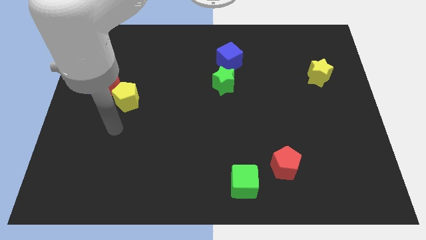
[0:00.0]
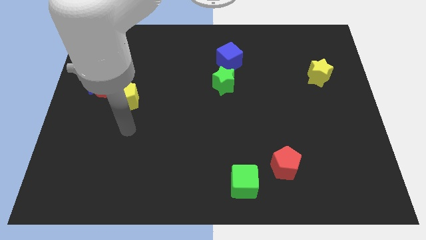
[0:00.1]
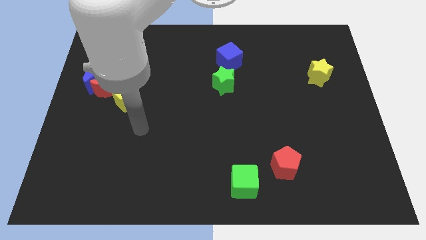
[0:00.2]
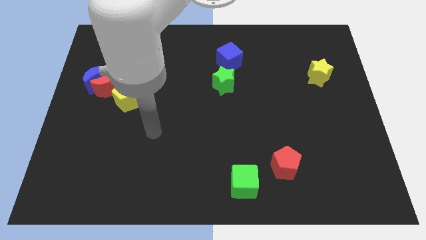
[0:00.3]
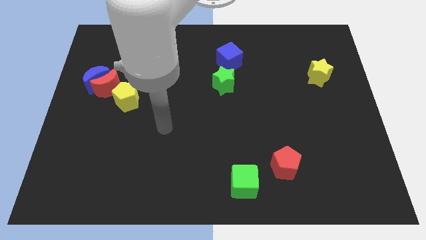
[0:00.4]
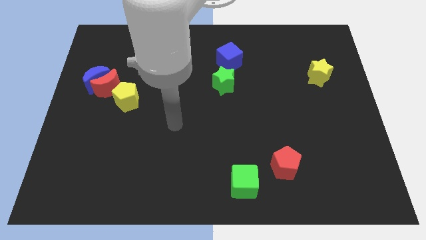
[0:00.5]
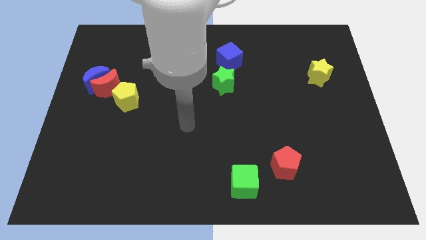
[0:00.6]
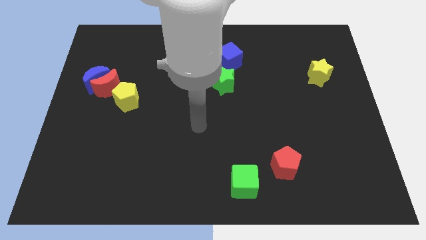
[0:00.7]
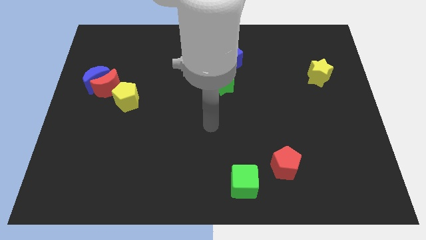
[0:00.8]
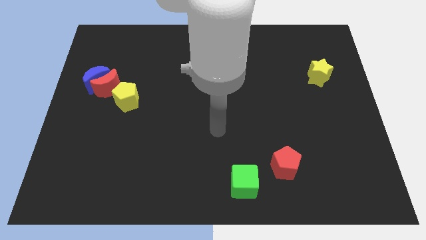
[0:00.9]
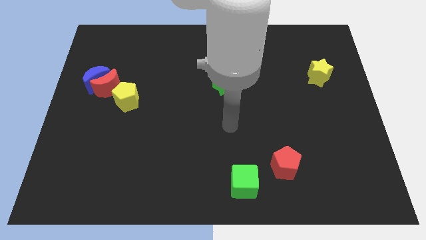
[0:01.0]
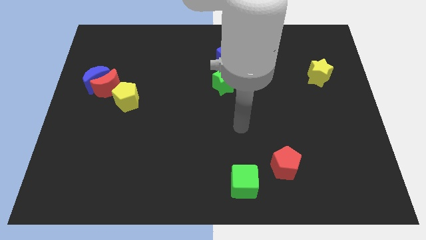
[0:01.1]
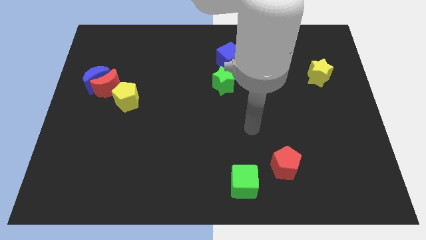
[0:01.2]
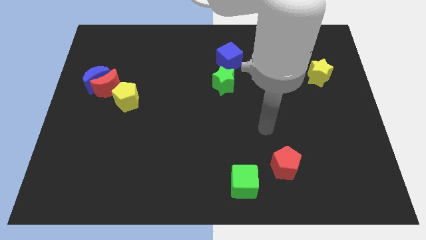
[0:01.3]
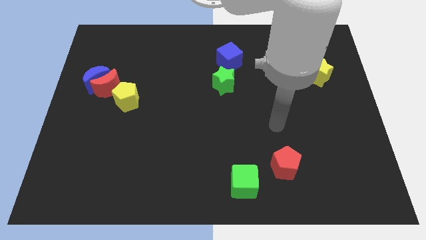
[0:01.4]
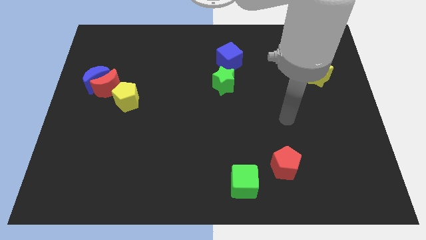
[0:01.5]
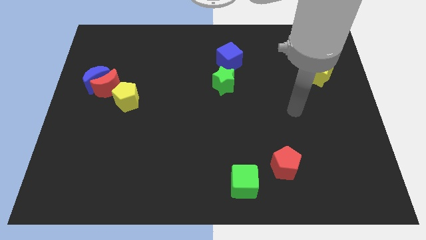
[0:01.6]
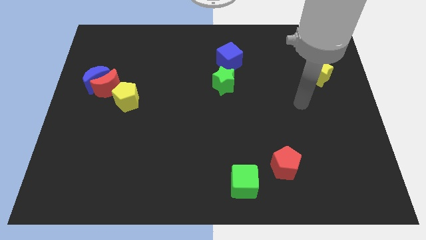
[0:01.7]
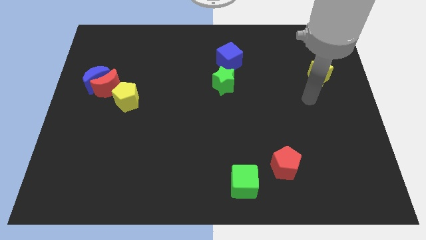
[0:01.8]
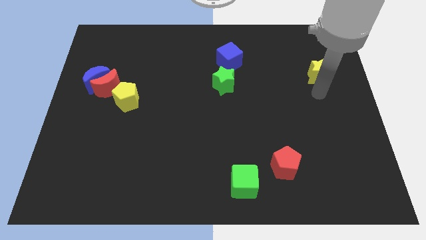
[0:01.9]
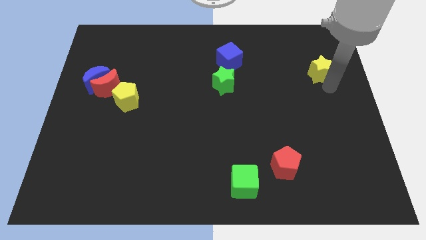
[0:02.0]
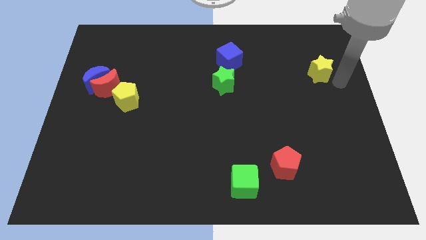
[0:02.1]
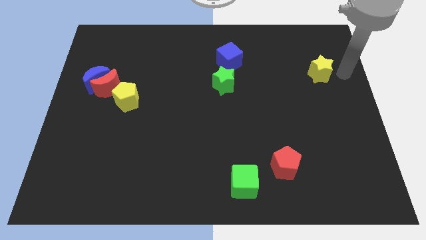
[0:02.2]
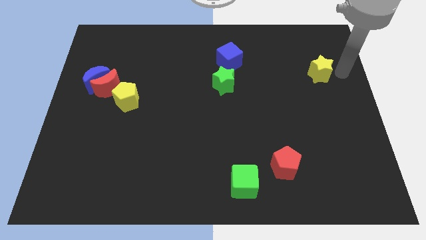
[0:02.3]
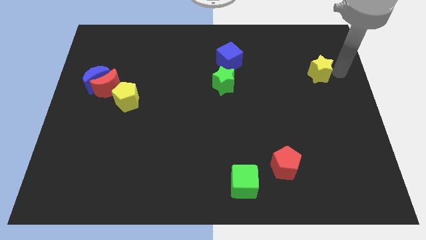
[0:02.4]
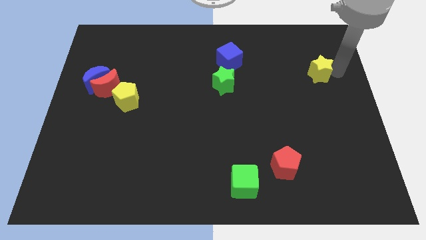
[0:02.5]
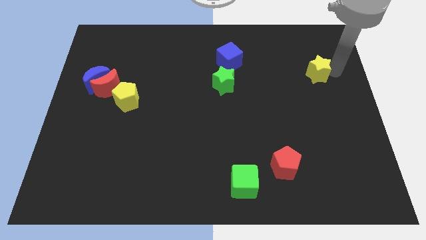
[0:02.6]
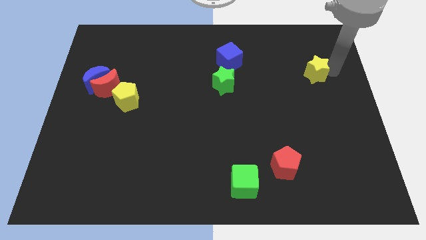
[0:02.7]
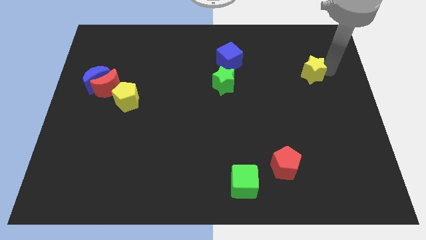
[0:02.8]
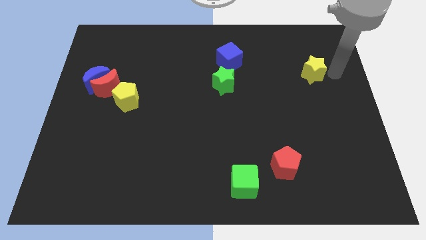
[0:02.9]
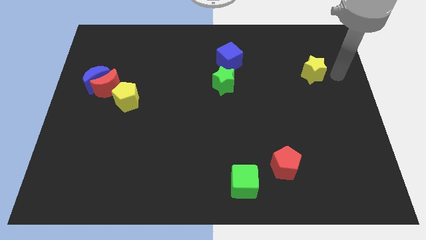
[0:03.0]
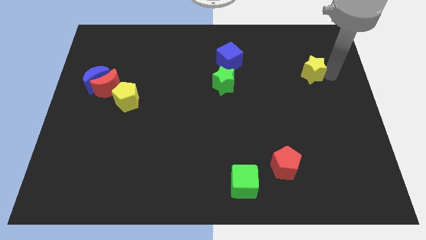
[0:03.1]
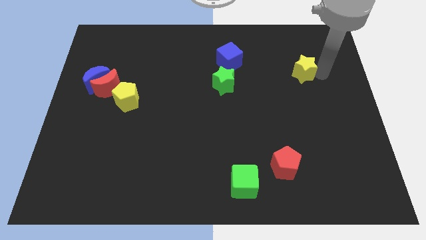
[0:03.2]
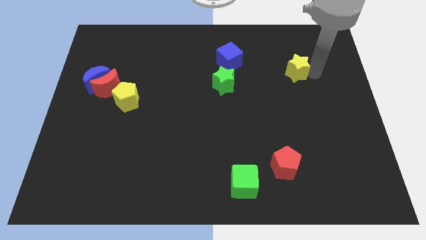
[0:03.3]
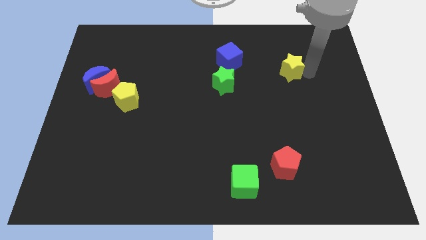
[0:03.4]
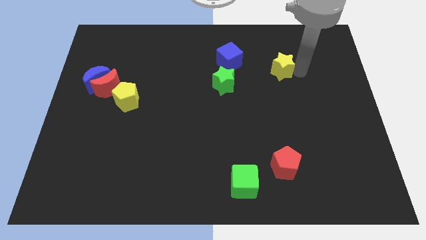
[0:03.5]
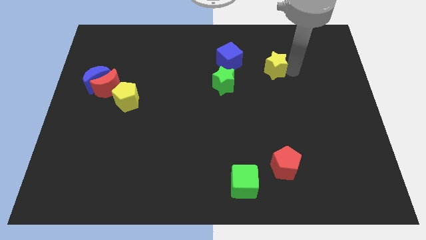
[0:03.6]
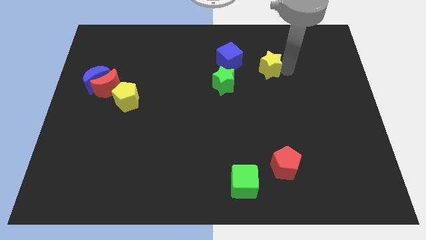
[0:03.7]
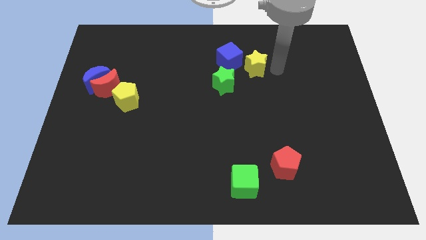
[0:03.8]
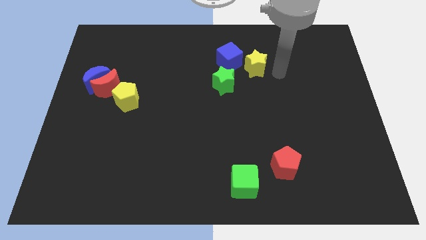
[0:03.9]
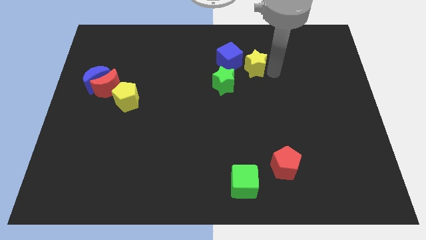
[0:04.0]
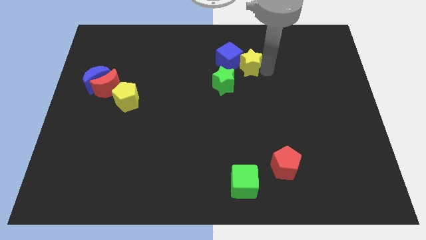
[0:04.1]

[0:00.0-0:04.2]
move the yellow star to the blue cube

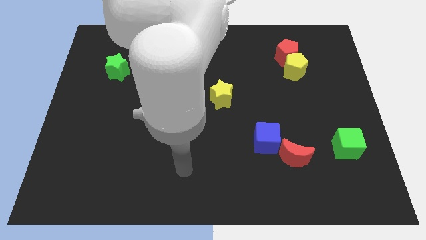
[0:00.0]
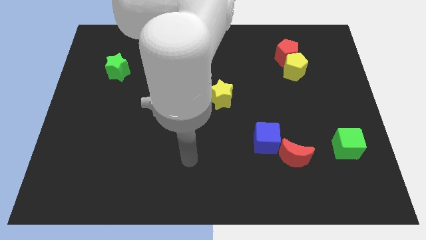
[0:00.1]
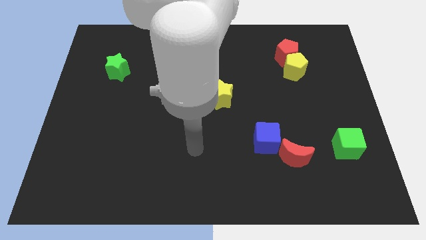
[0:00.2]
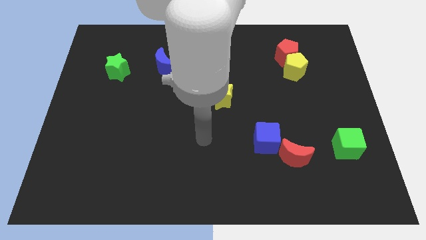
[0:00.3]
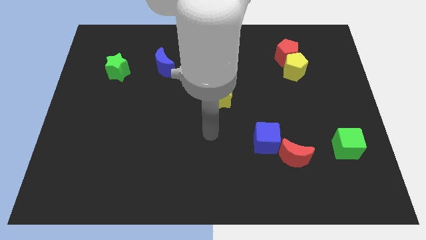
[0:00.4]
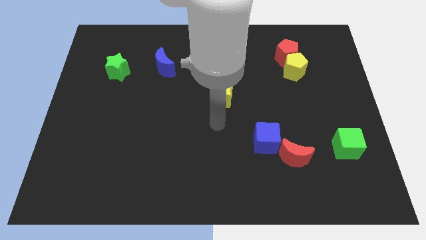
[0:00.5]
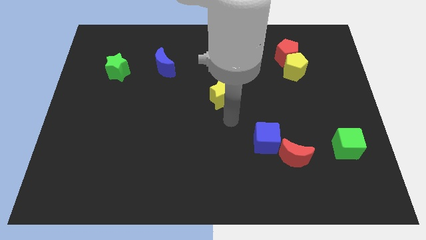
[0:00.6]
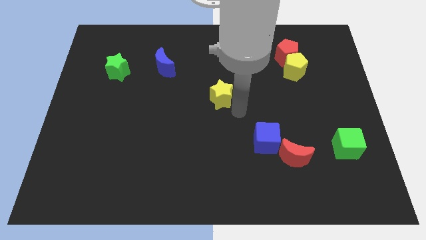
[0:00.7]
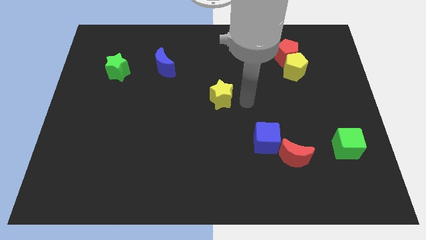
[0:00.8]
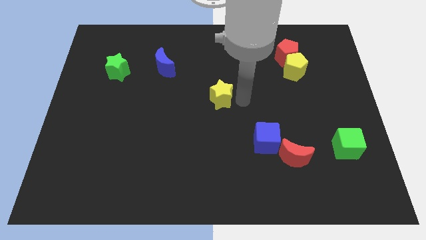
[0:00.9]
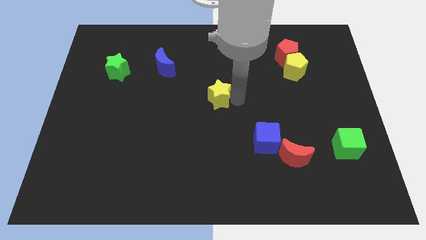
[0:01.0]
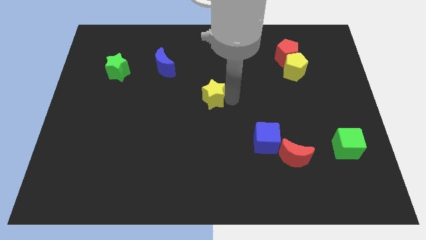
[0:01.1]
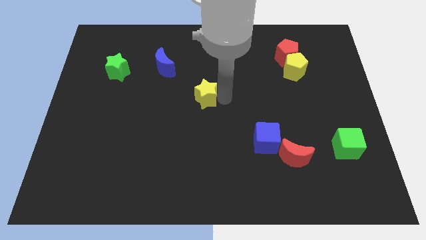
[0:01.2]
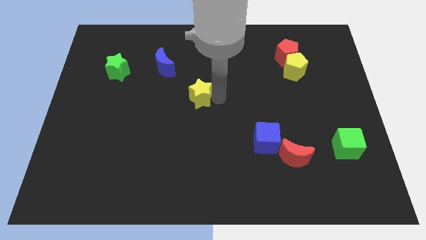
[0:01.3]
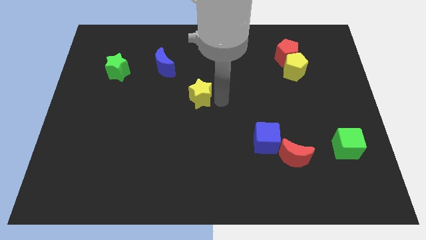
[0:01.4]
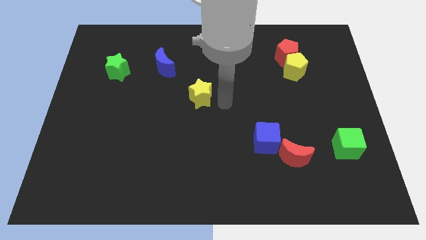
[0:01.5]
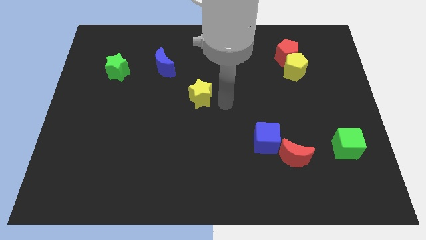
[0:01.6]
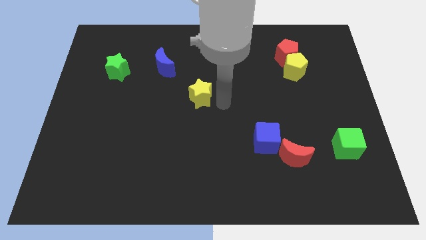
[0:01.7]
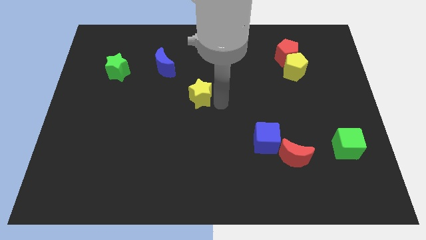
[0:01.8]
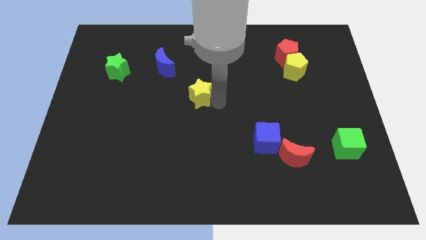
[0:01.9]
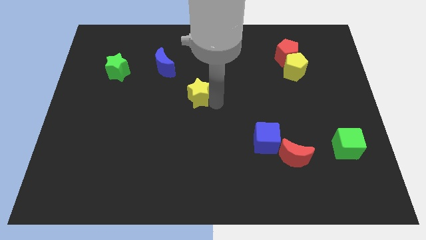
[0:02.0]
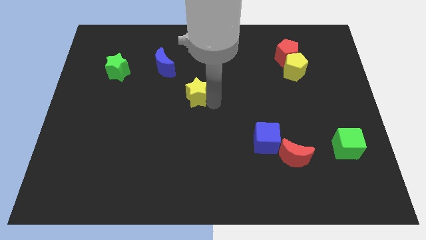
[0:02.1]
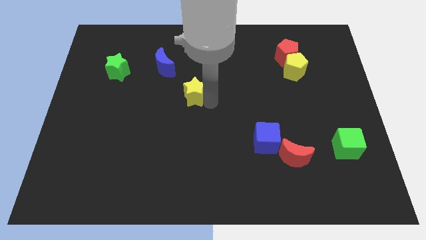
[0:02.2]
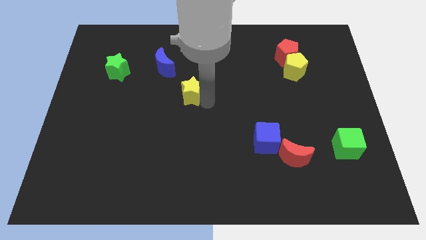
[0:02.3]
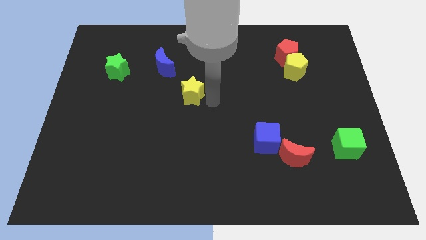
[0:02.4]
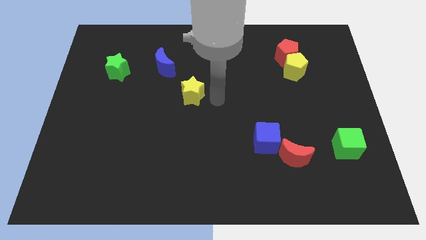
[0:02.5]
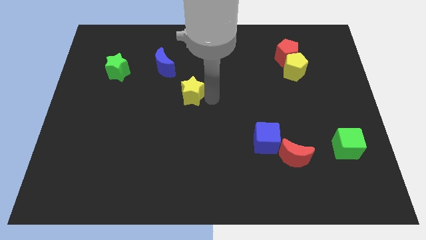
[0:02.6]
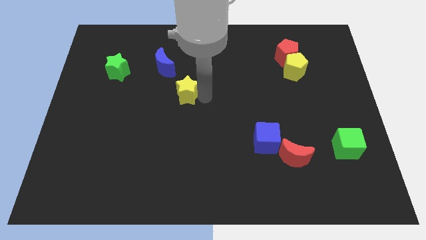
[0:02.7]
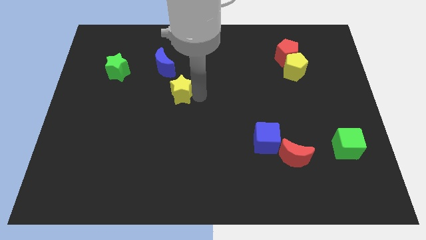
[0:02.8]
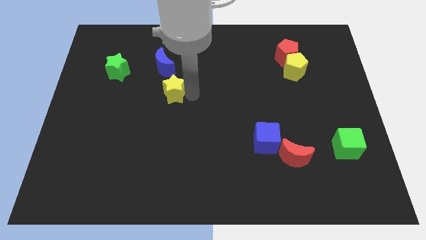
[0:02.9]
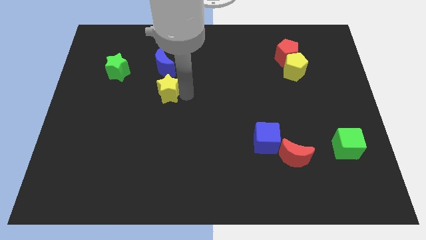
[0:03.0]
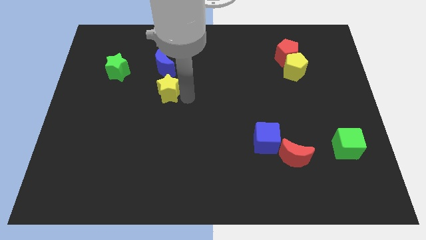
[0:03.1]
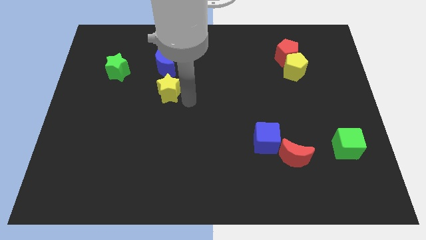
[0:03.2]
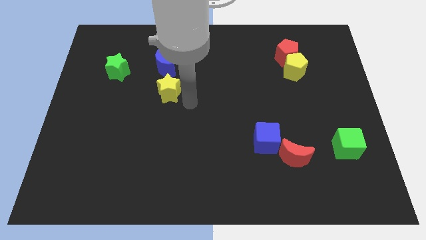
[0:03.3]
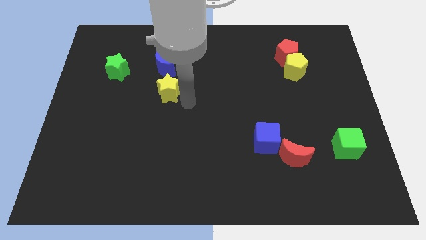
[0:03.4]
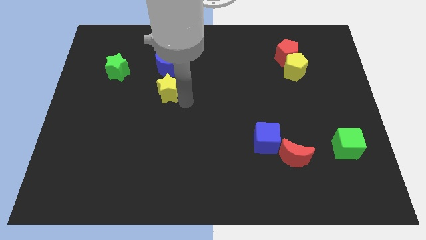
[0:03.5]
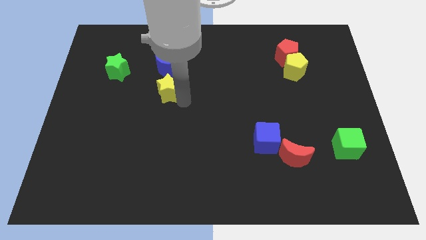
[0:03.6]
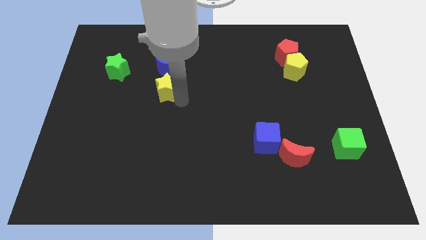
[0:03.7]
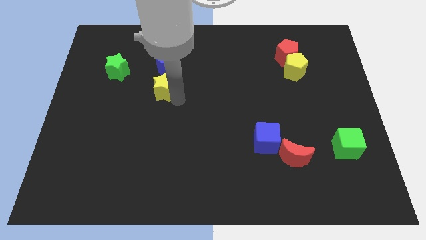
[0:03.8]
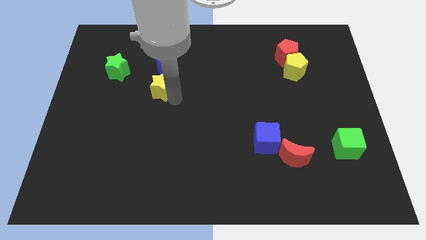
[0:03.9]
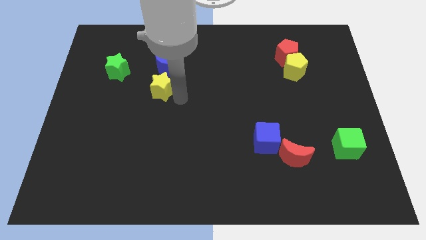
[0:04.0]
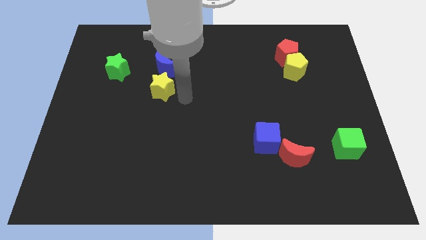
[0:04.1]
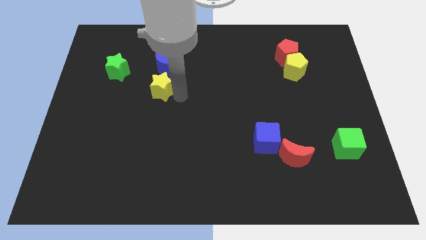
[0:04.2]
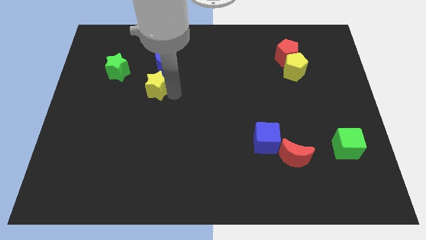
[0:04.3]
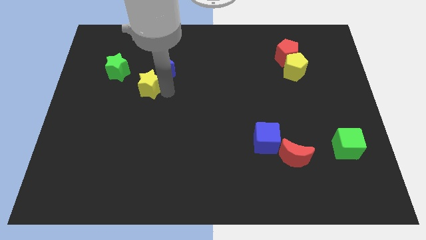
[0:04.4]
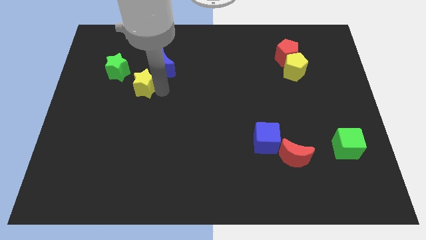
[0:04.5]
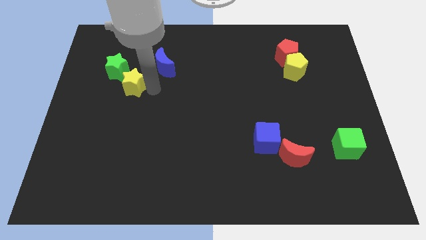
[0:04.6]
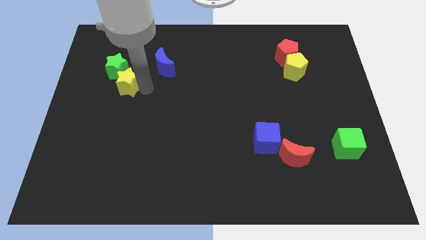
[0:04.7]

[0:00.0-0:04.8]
move the yellow star to the green star
